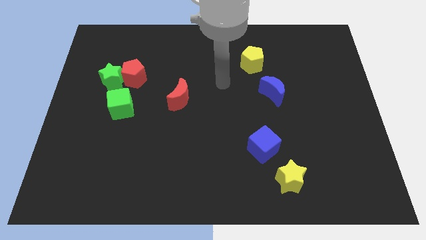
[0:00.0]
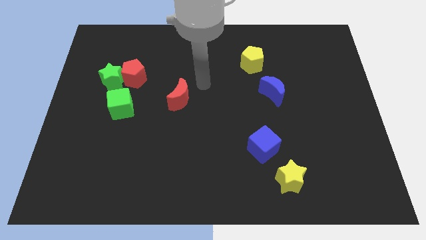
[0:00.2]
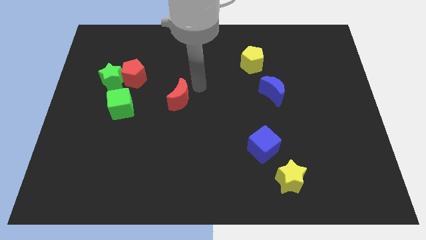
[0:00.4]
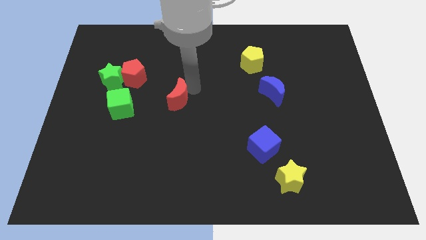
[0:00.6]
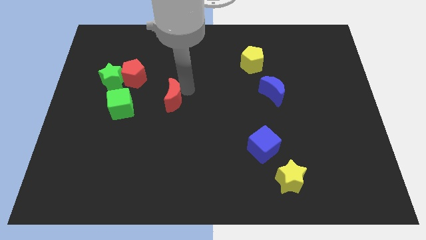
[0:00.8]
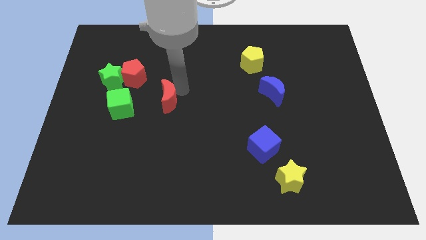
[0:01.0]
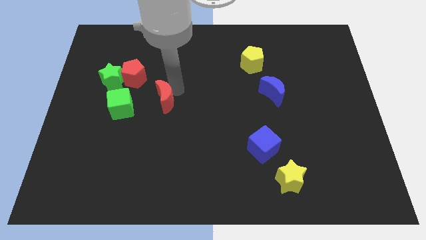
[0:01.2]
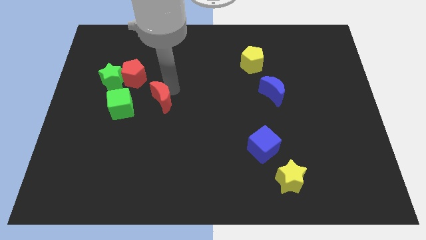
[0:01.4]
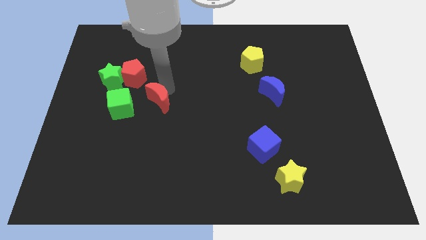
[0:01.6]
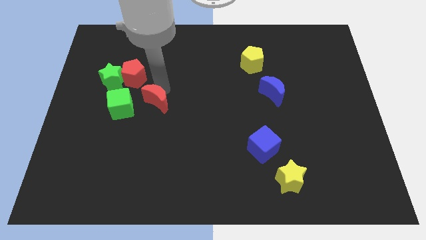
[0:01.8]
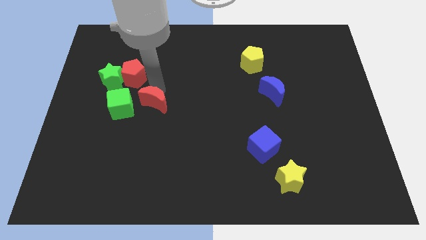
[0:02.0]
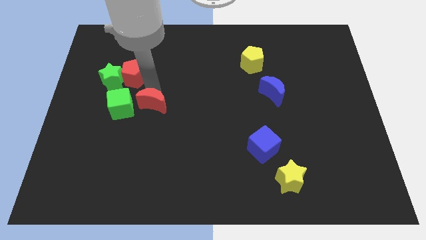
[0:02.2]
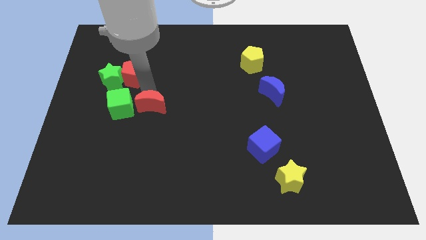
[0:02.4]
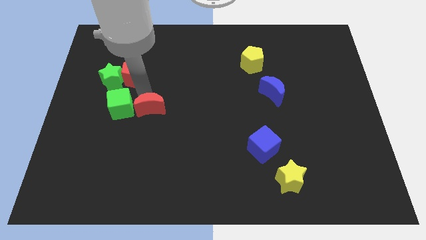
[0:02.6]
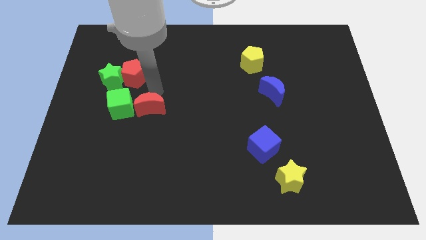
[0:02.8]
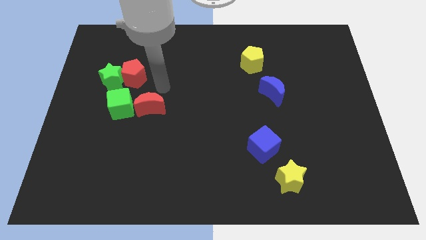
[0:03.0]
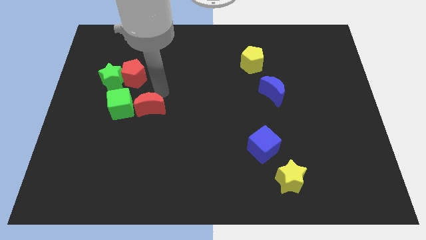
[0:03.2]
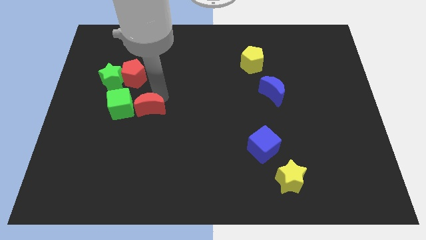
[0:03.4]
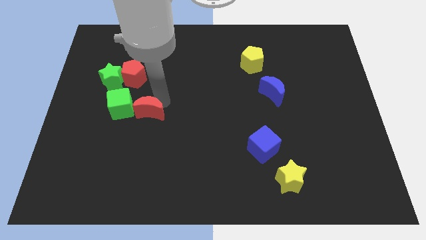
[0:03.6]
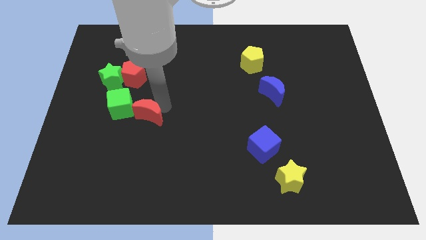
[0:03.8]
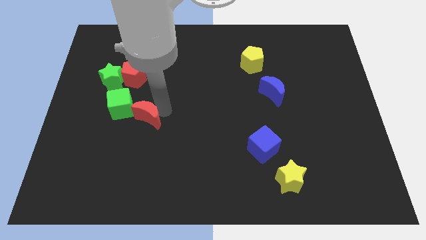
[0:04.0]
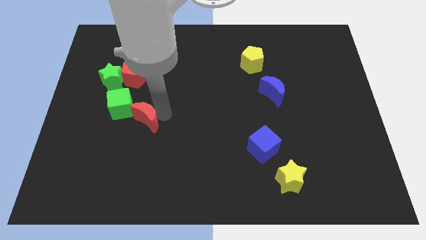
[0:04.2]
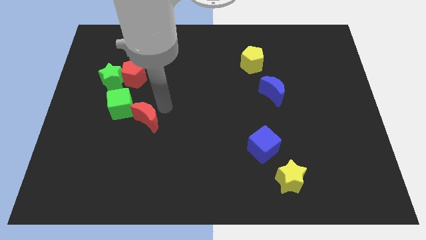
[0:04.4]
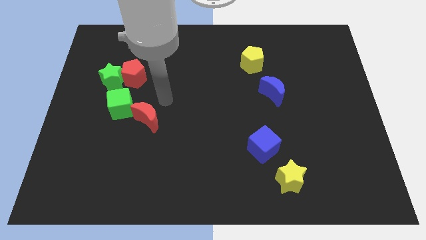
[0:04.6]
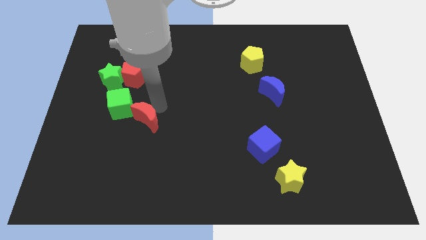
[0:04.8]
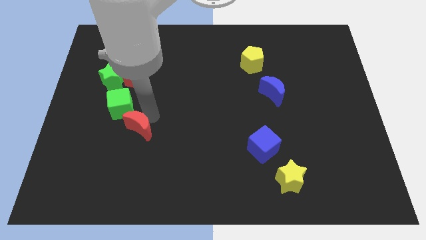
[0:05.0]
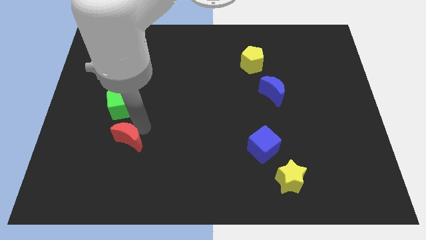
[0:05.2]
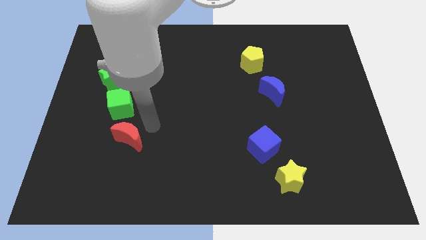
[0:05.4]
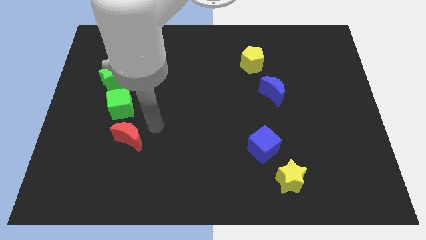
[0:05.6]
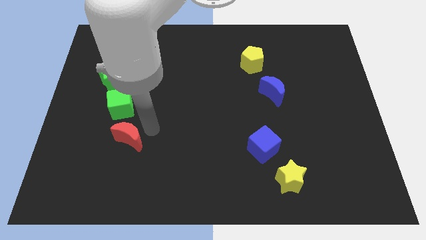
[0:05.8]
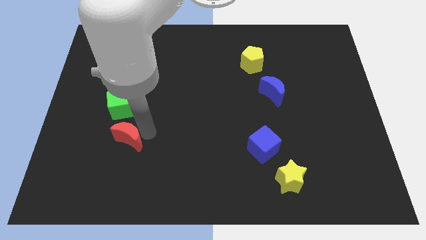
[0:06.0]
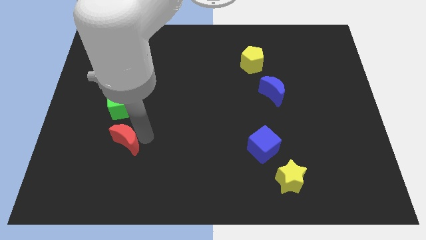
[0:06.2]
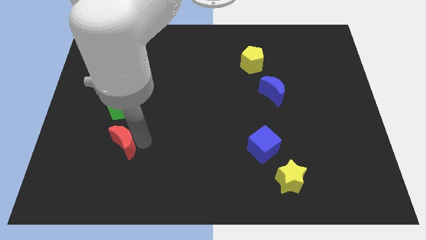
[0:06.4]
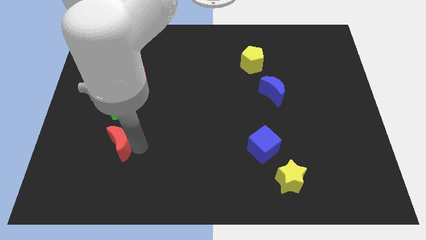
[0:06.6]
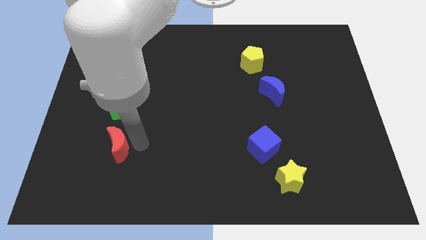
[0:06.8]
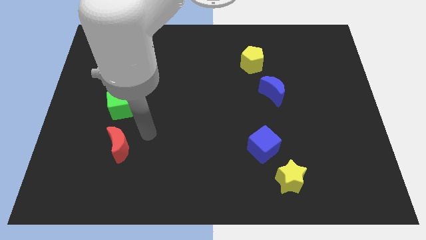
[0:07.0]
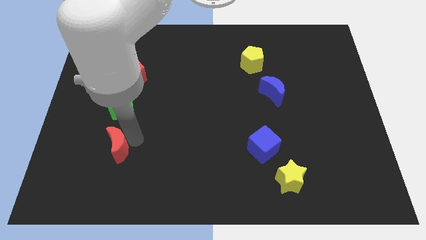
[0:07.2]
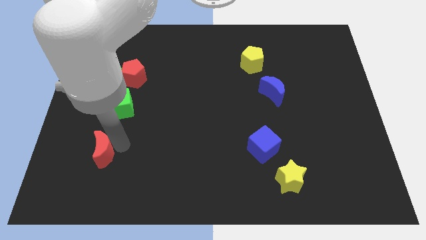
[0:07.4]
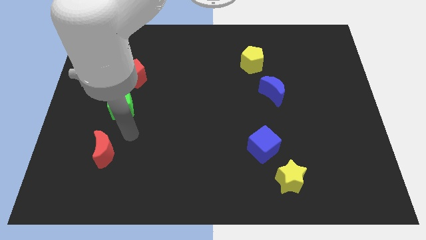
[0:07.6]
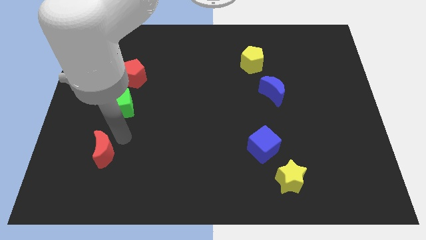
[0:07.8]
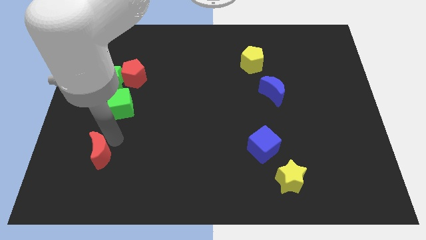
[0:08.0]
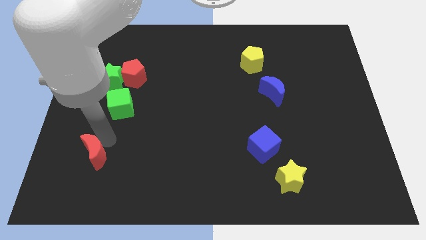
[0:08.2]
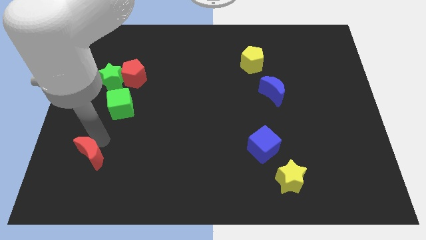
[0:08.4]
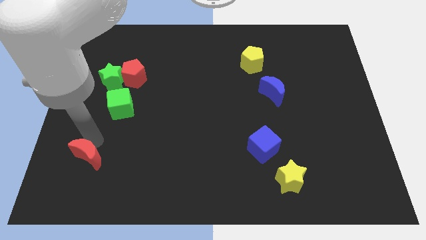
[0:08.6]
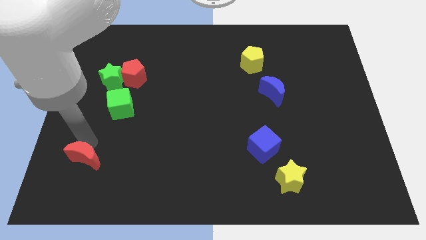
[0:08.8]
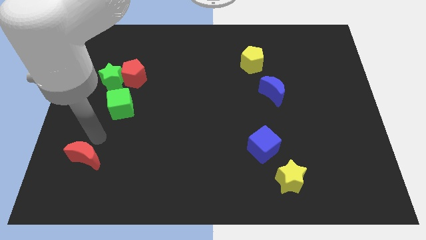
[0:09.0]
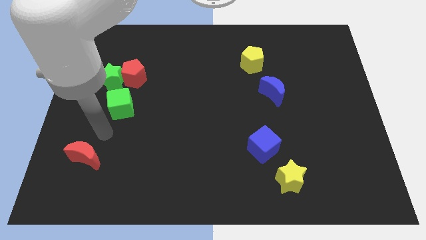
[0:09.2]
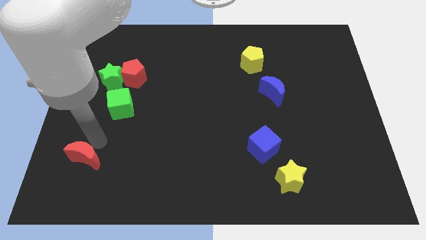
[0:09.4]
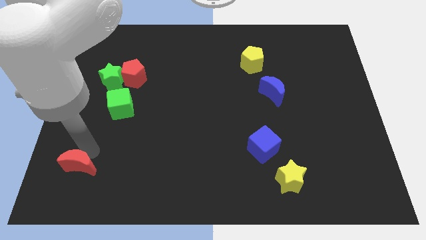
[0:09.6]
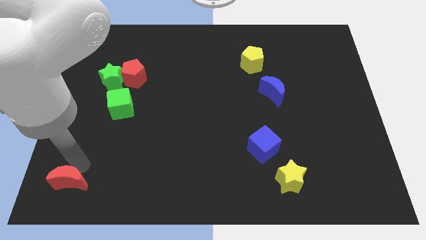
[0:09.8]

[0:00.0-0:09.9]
push the red moon to the bottom left

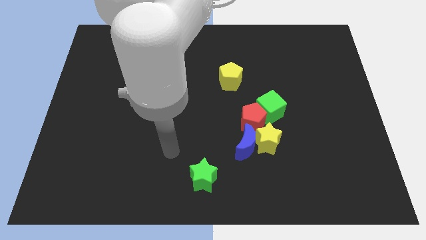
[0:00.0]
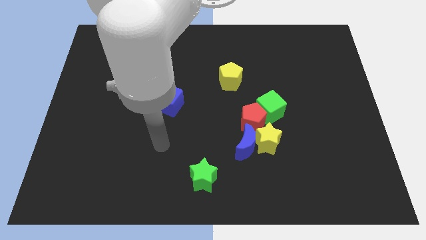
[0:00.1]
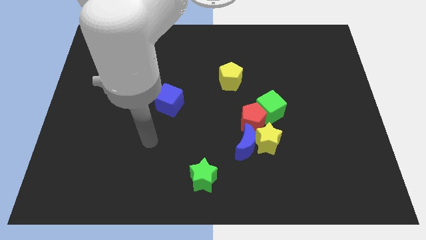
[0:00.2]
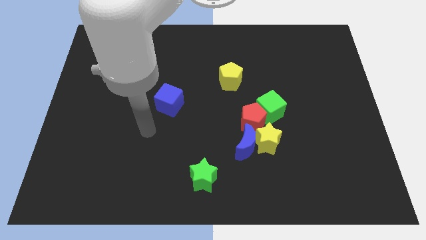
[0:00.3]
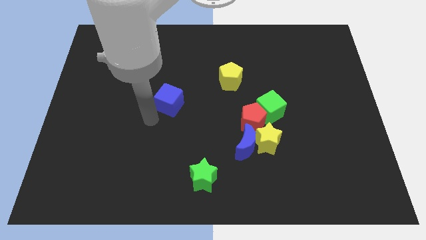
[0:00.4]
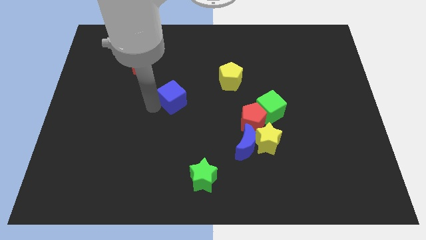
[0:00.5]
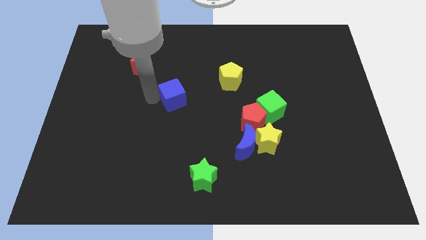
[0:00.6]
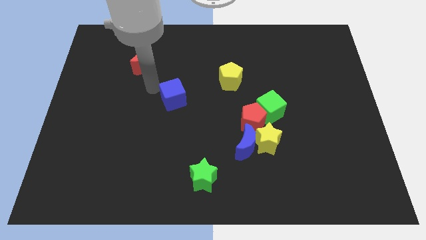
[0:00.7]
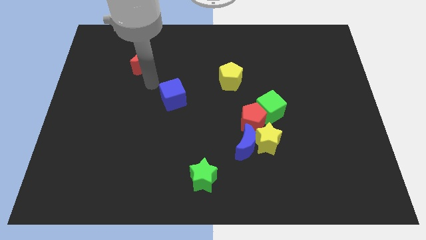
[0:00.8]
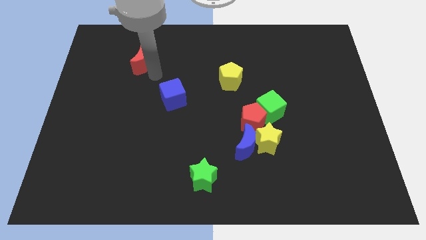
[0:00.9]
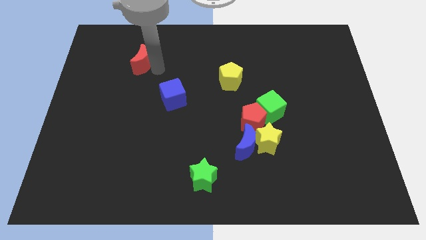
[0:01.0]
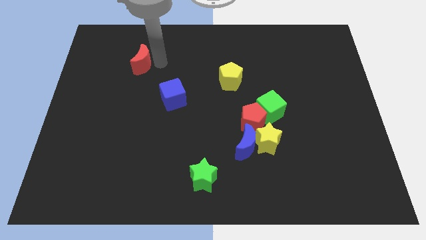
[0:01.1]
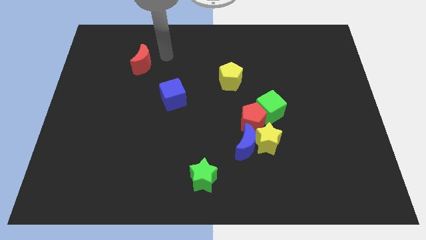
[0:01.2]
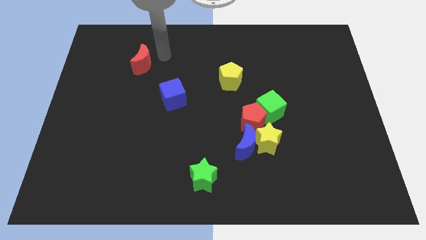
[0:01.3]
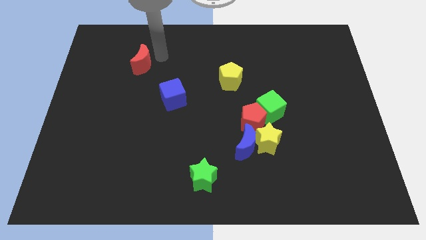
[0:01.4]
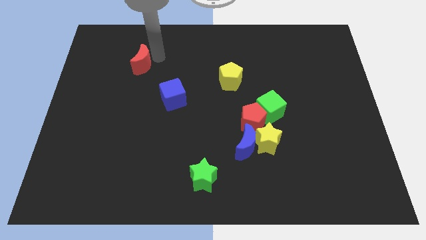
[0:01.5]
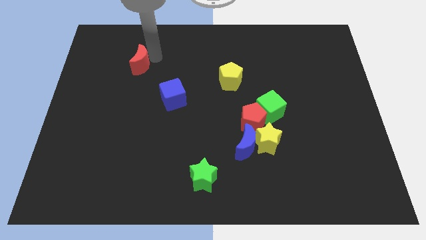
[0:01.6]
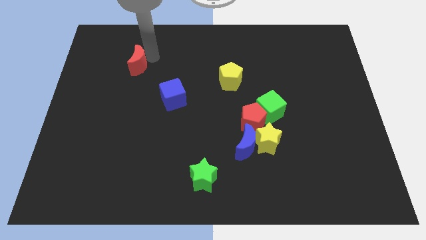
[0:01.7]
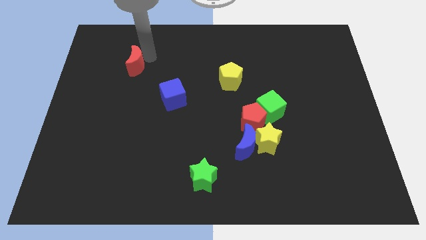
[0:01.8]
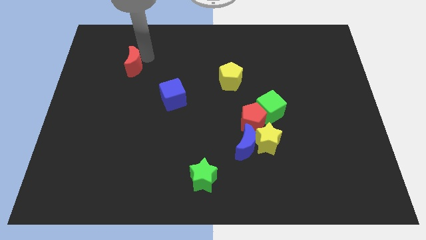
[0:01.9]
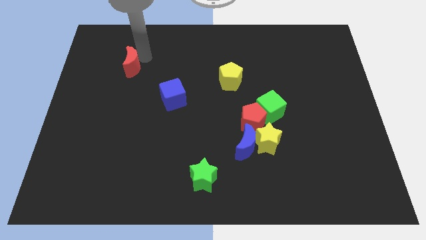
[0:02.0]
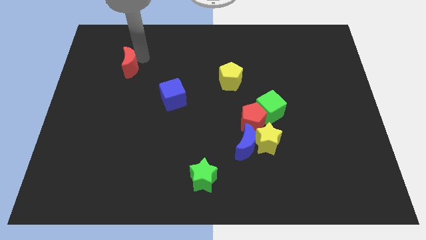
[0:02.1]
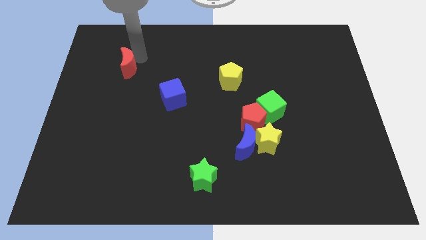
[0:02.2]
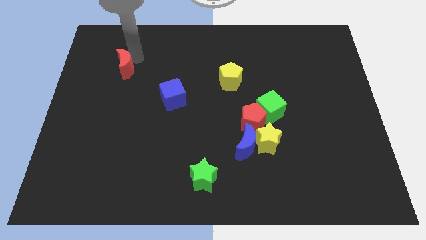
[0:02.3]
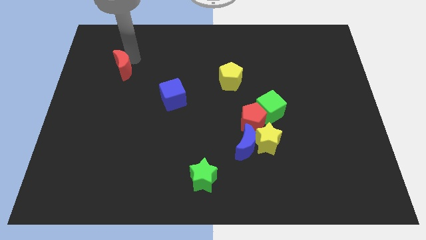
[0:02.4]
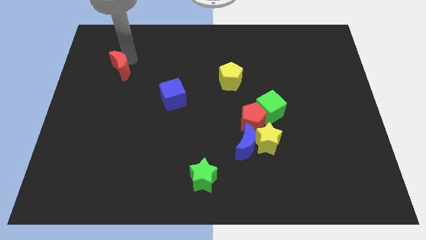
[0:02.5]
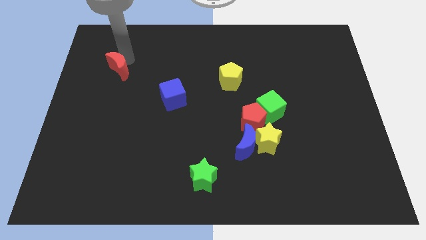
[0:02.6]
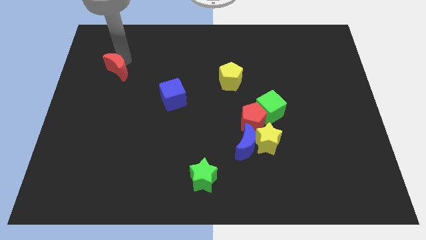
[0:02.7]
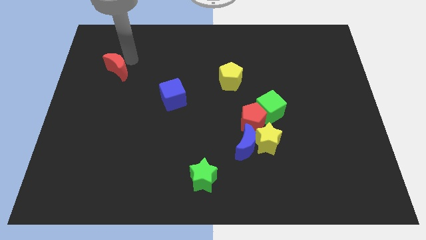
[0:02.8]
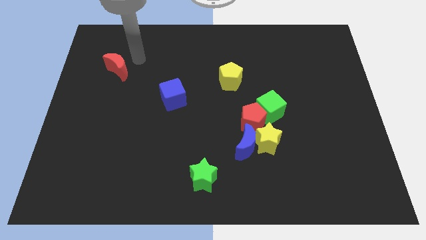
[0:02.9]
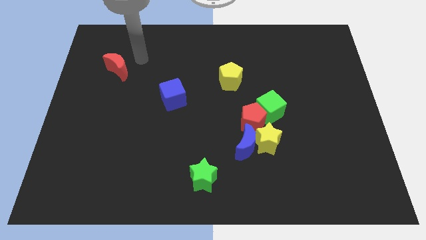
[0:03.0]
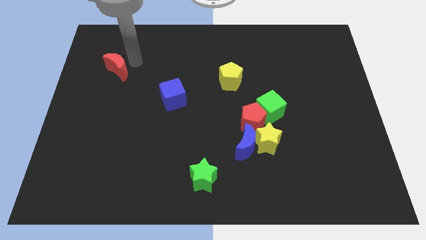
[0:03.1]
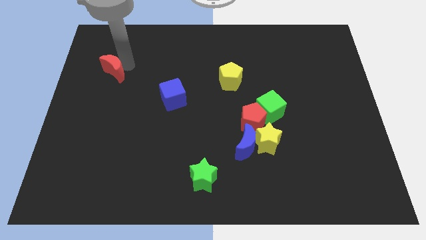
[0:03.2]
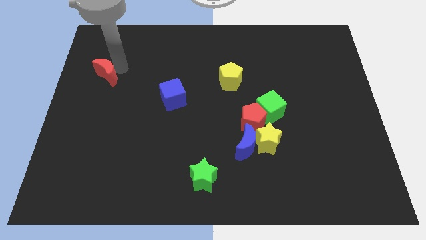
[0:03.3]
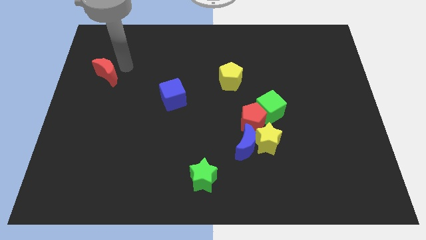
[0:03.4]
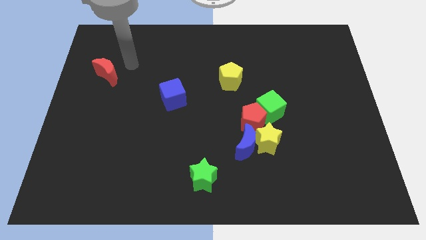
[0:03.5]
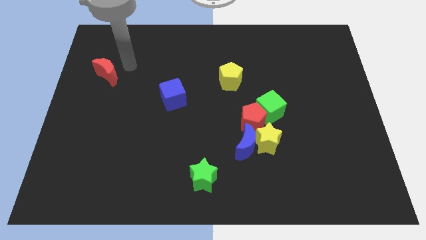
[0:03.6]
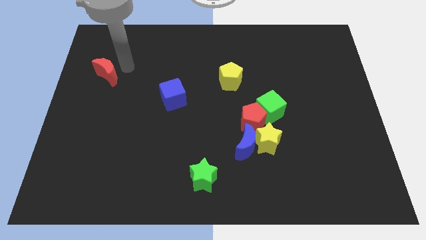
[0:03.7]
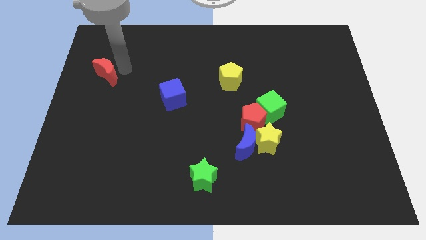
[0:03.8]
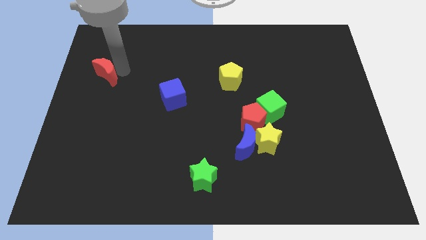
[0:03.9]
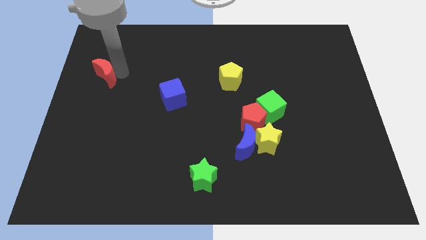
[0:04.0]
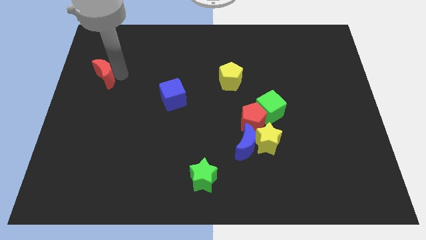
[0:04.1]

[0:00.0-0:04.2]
move the red moon to the left side of the board
